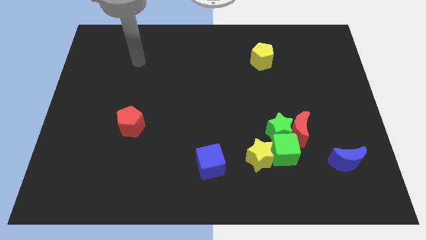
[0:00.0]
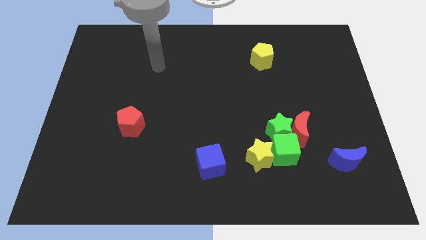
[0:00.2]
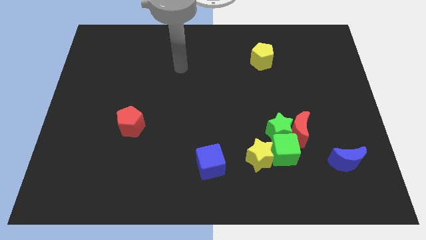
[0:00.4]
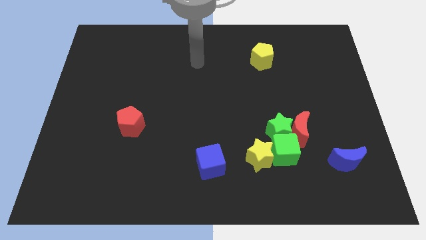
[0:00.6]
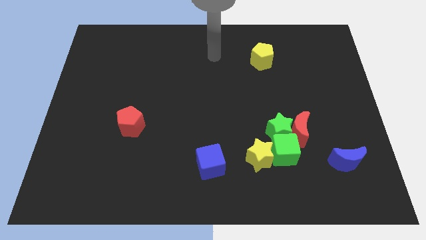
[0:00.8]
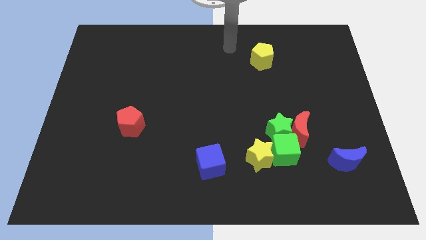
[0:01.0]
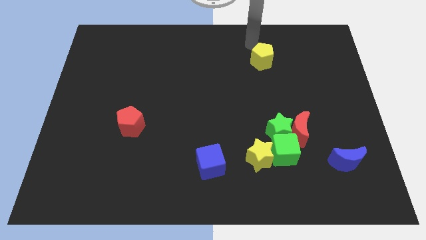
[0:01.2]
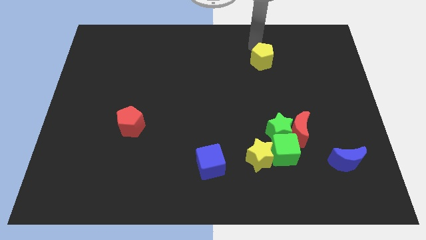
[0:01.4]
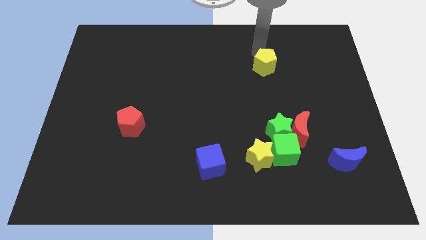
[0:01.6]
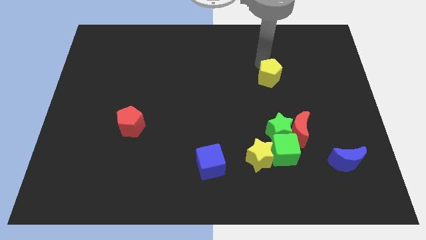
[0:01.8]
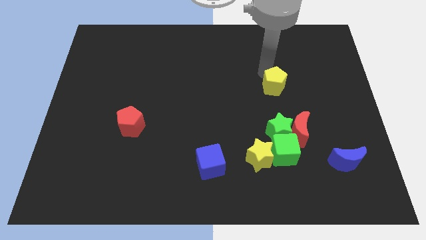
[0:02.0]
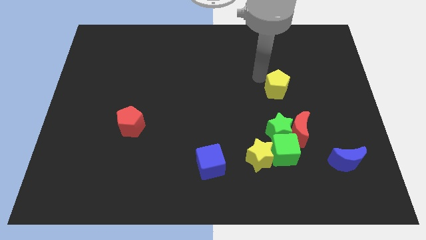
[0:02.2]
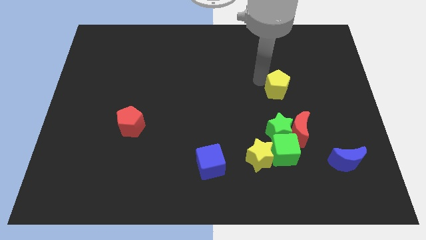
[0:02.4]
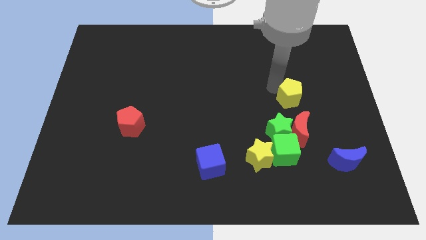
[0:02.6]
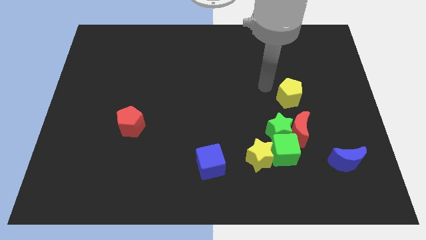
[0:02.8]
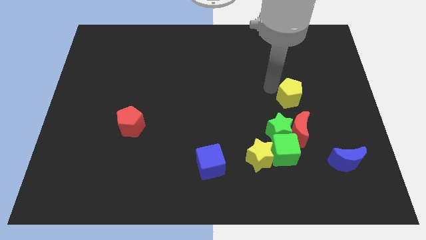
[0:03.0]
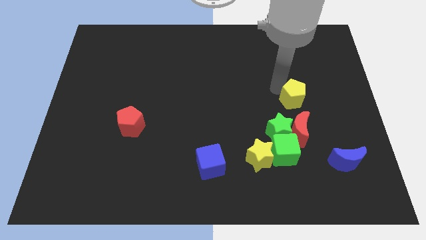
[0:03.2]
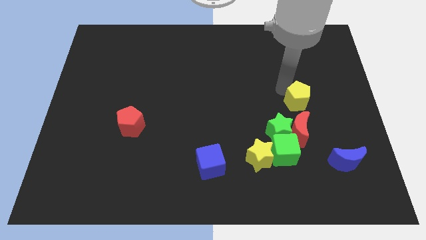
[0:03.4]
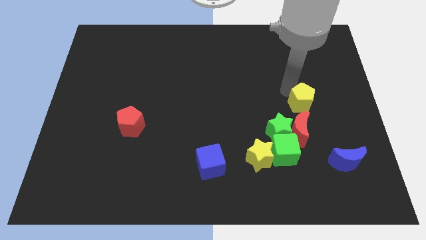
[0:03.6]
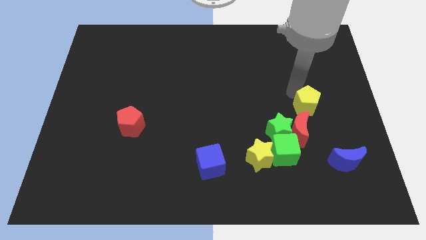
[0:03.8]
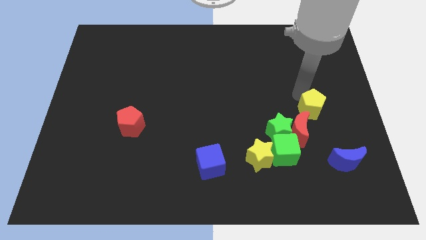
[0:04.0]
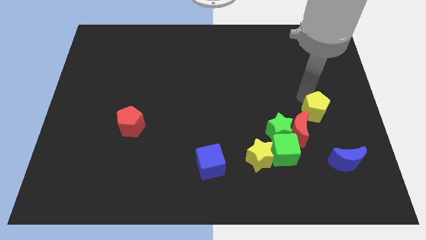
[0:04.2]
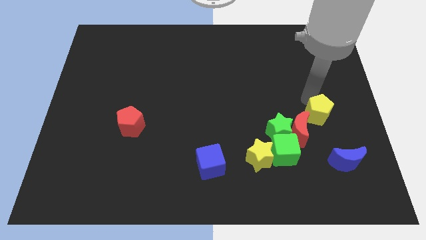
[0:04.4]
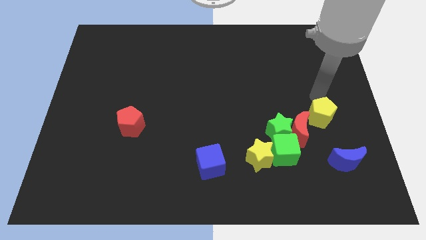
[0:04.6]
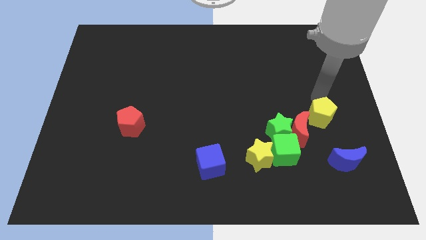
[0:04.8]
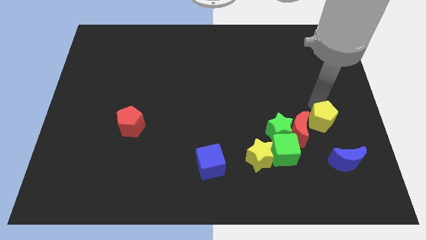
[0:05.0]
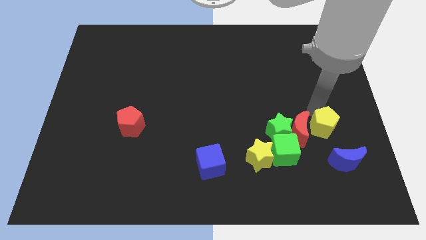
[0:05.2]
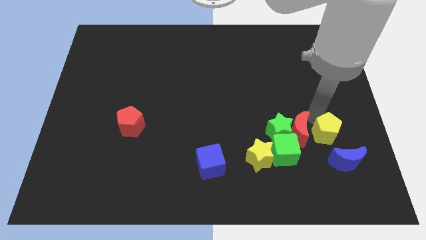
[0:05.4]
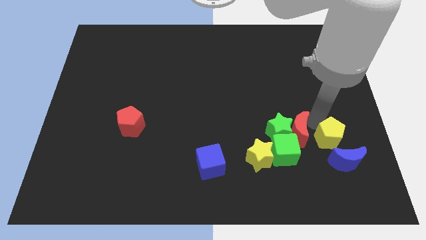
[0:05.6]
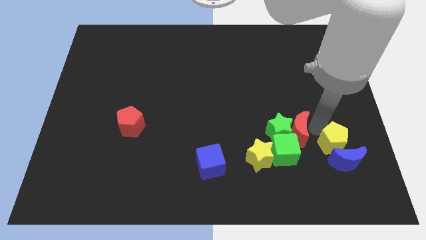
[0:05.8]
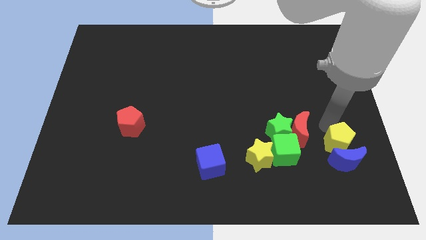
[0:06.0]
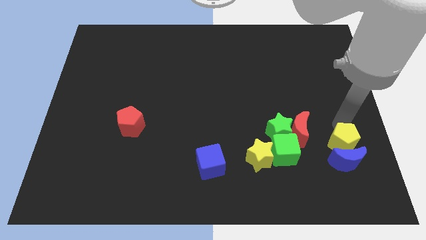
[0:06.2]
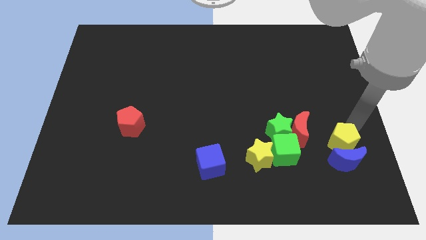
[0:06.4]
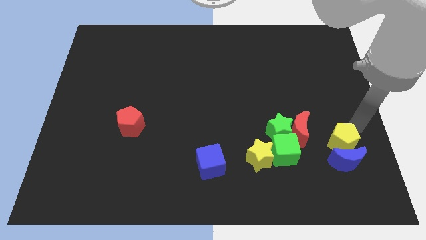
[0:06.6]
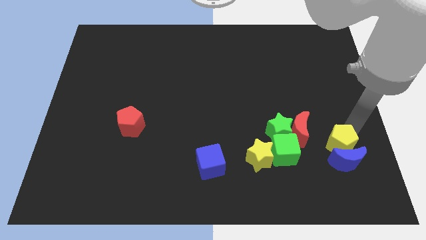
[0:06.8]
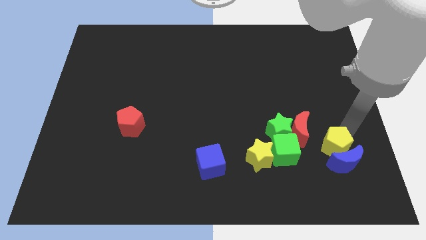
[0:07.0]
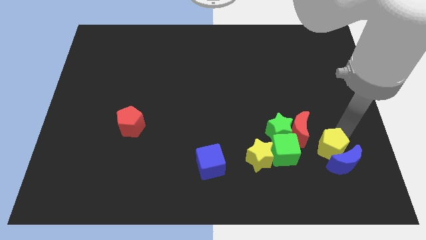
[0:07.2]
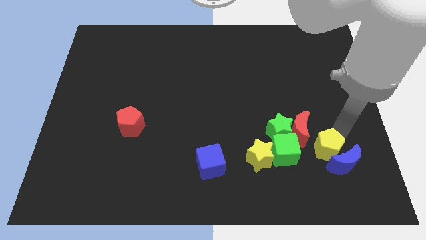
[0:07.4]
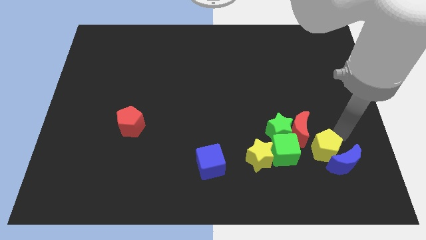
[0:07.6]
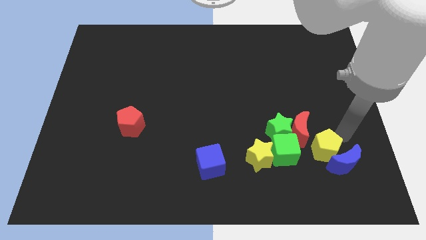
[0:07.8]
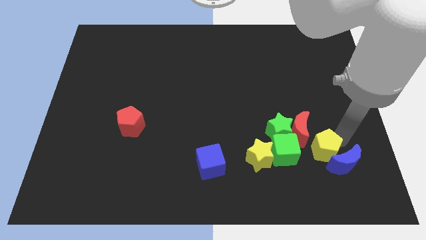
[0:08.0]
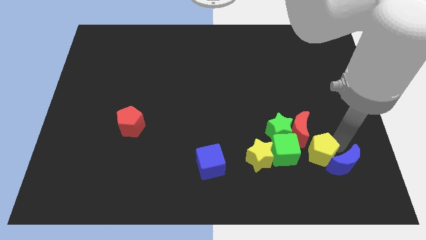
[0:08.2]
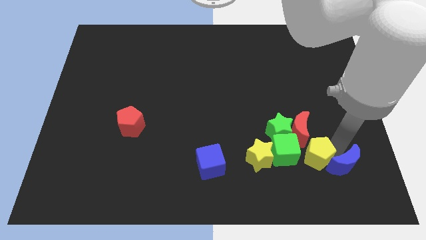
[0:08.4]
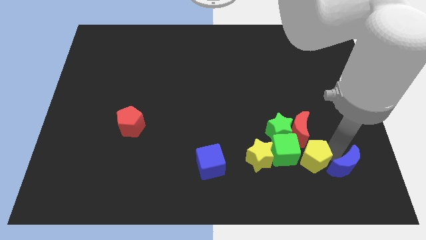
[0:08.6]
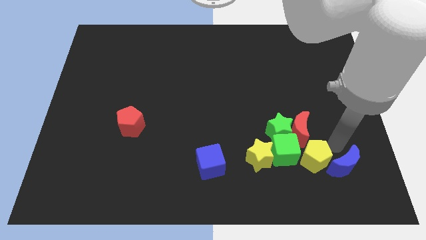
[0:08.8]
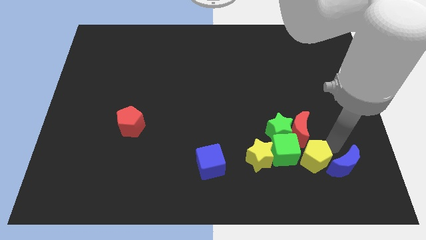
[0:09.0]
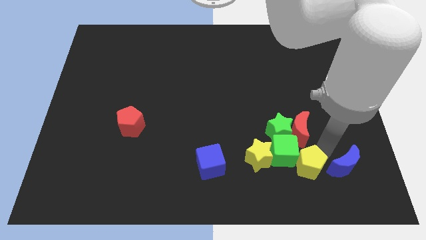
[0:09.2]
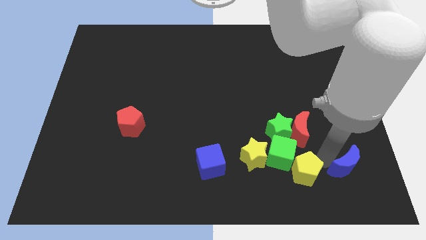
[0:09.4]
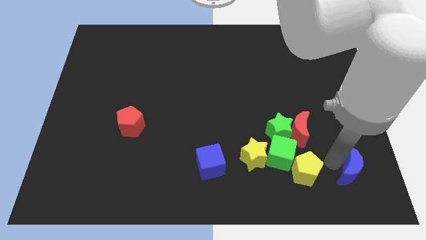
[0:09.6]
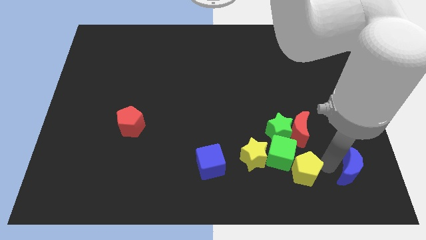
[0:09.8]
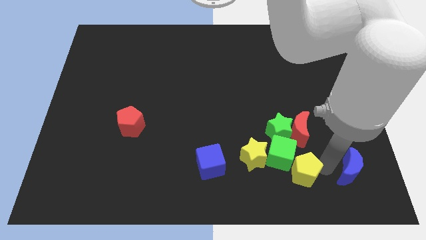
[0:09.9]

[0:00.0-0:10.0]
put the yellow pentagon to the bottom right of the yellow star

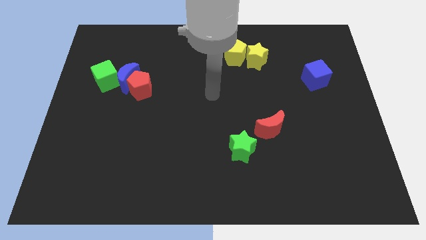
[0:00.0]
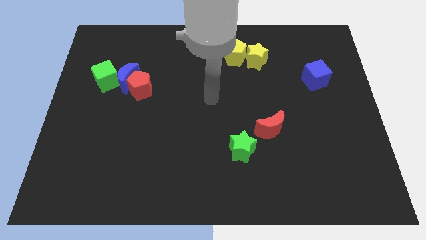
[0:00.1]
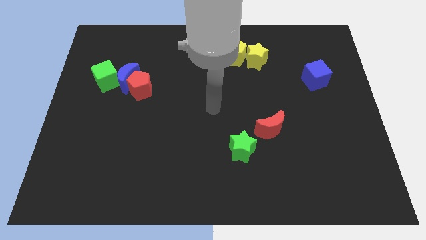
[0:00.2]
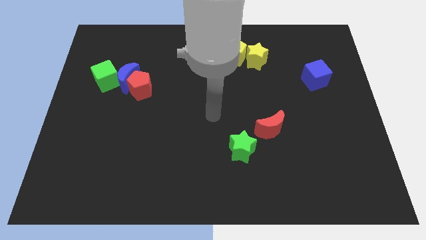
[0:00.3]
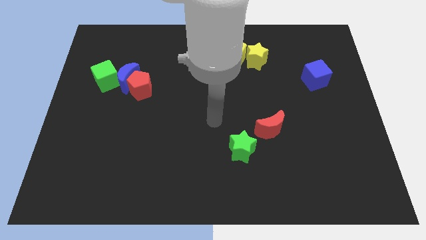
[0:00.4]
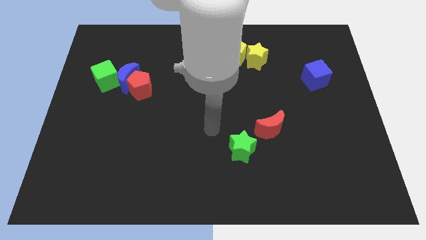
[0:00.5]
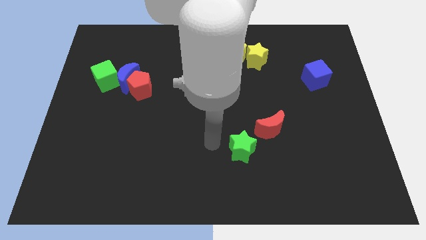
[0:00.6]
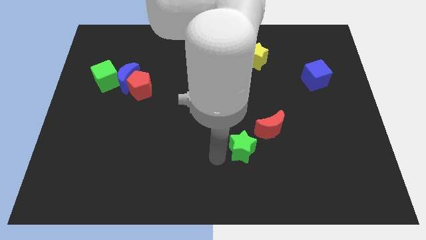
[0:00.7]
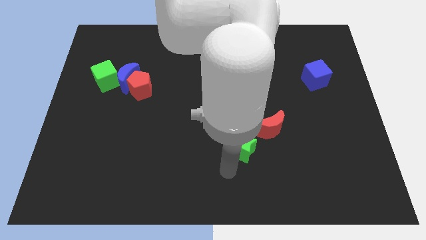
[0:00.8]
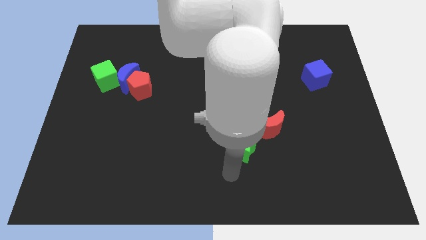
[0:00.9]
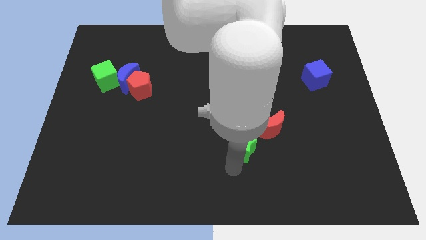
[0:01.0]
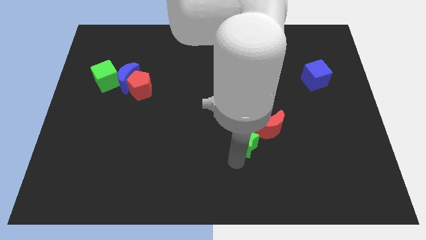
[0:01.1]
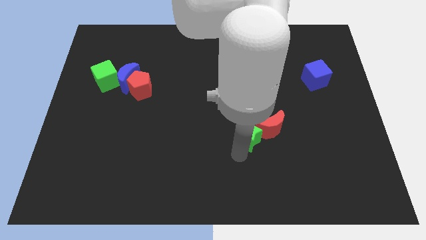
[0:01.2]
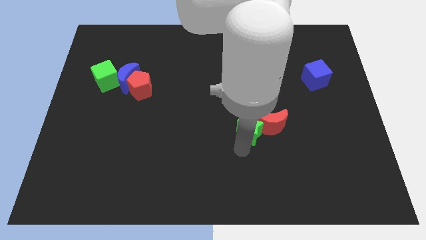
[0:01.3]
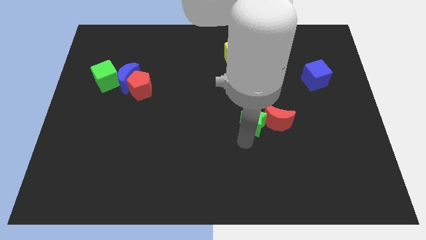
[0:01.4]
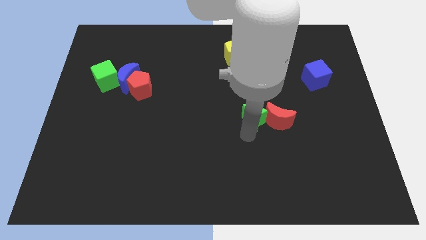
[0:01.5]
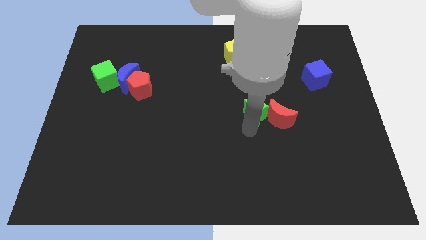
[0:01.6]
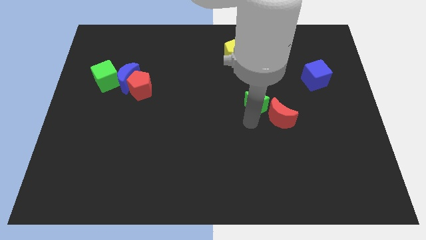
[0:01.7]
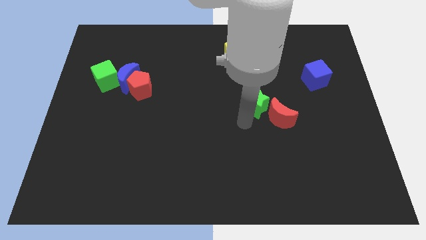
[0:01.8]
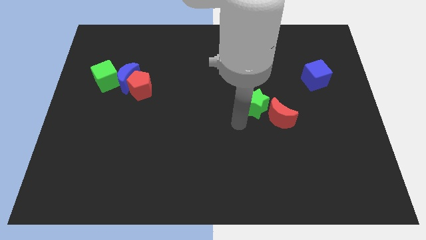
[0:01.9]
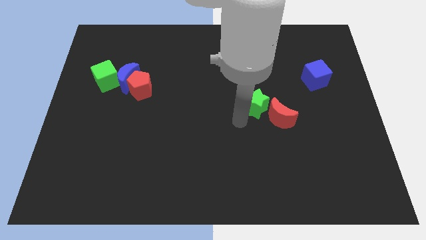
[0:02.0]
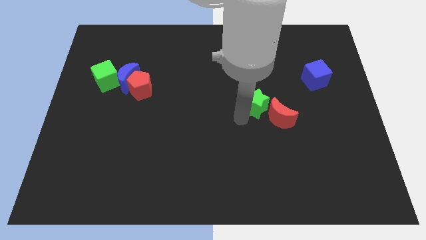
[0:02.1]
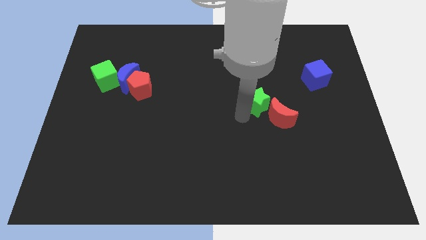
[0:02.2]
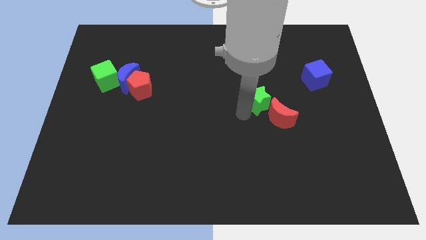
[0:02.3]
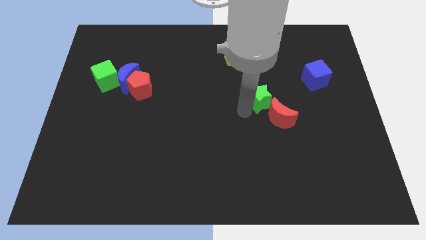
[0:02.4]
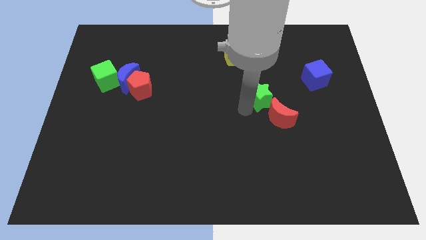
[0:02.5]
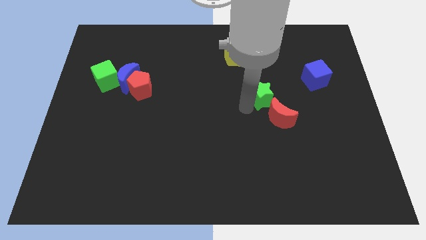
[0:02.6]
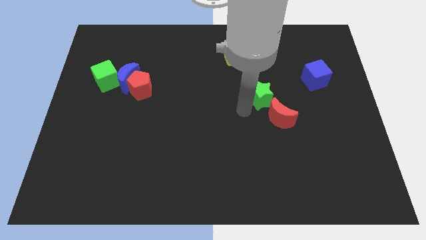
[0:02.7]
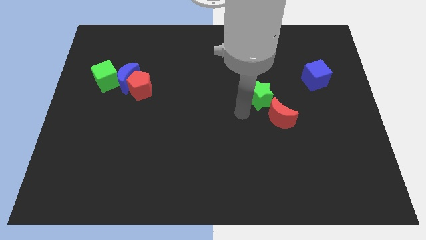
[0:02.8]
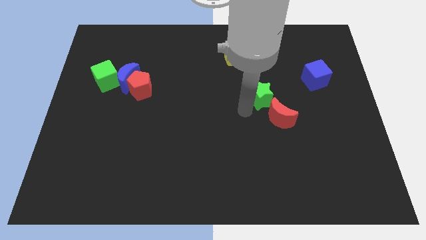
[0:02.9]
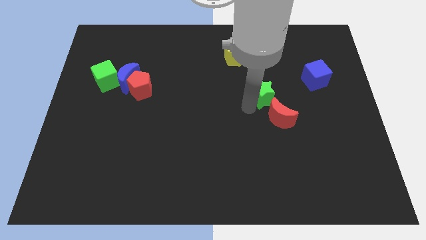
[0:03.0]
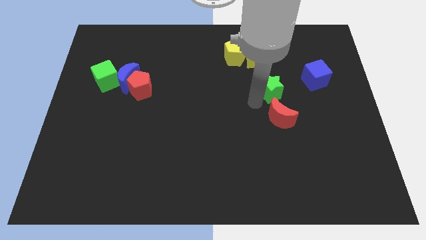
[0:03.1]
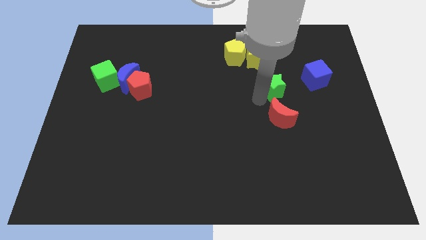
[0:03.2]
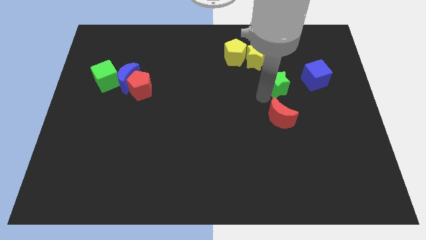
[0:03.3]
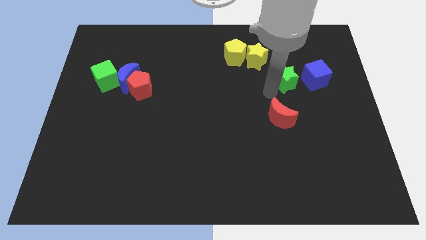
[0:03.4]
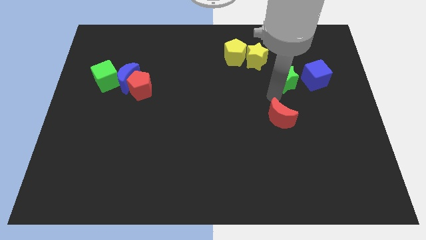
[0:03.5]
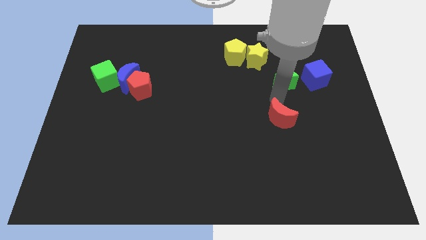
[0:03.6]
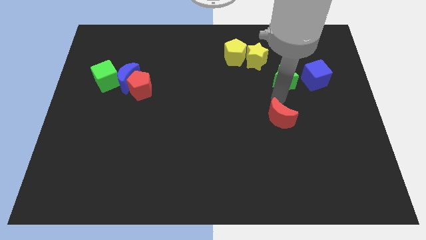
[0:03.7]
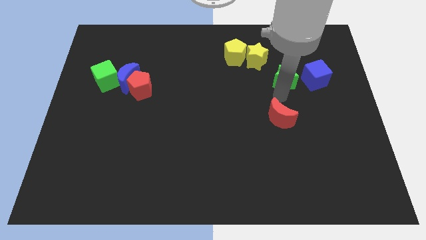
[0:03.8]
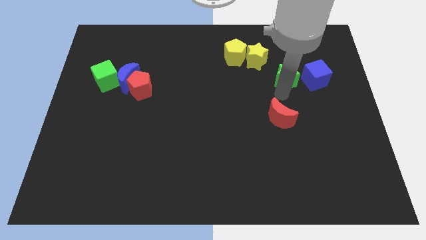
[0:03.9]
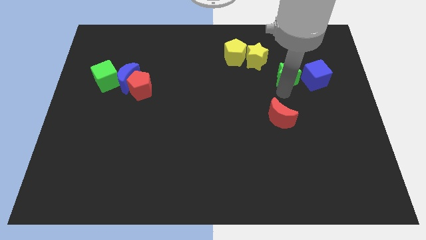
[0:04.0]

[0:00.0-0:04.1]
push the green star to the top left of the blue cube
